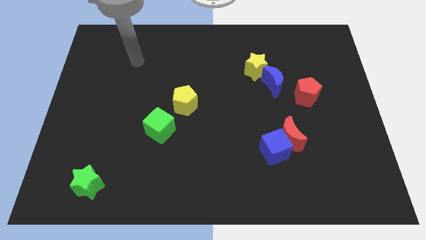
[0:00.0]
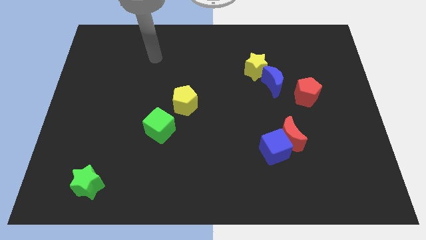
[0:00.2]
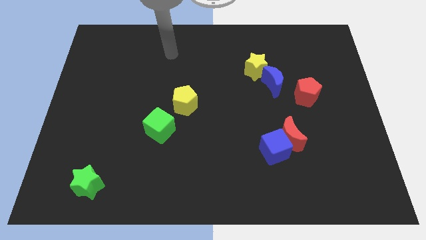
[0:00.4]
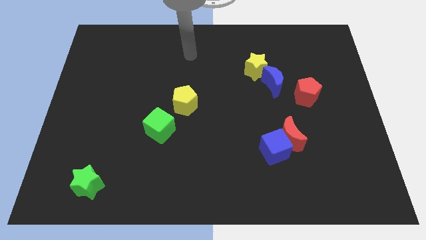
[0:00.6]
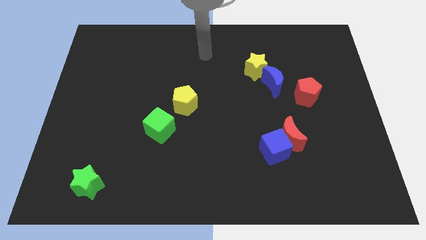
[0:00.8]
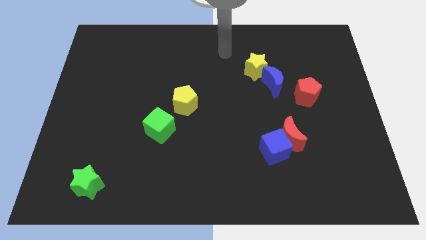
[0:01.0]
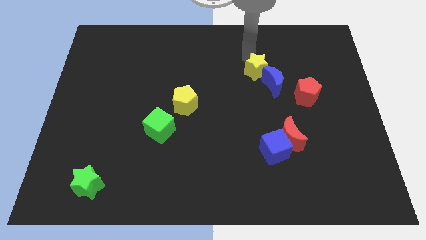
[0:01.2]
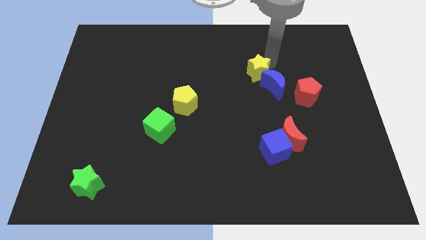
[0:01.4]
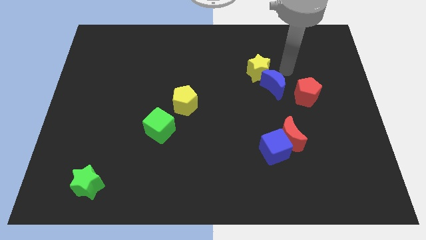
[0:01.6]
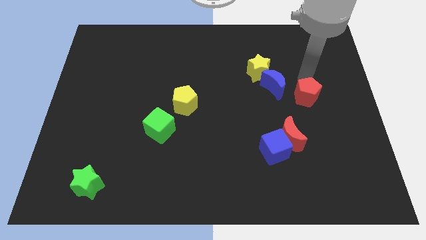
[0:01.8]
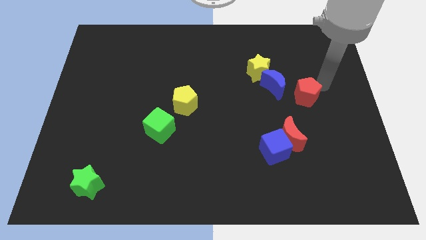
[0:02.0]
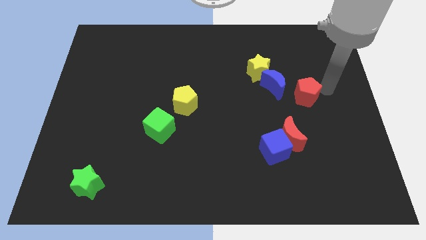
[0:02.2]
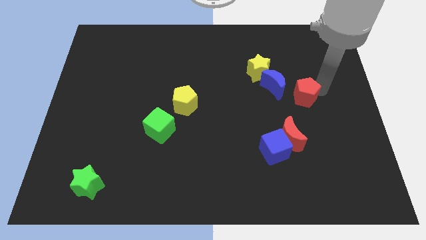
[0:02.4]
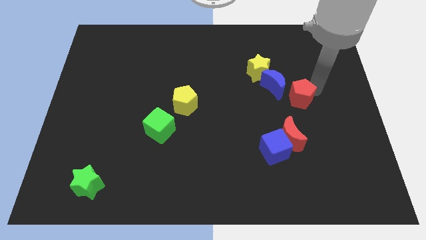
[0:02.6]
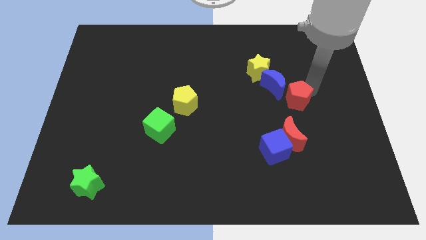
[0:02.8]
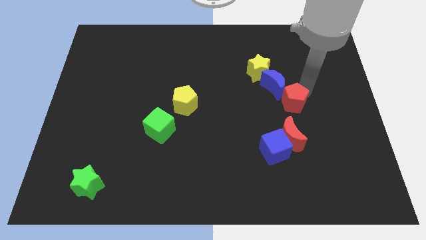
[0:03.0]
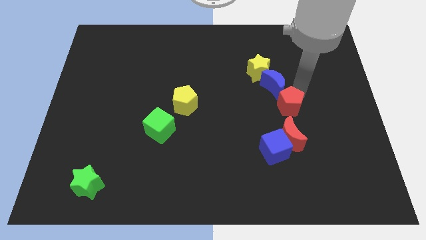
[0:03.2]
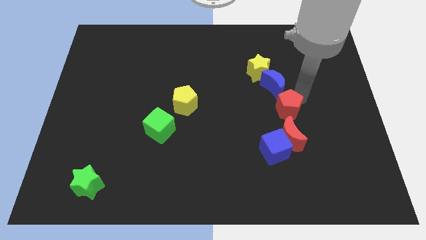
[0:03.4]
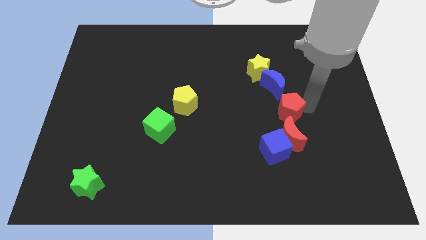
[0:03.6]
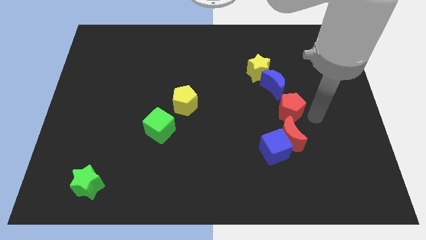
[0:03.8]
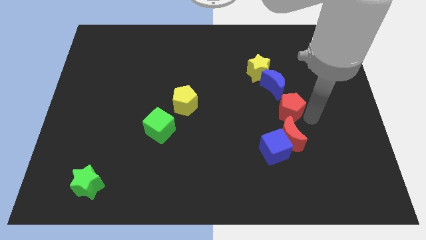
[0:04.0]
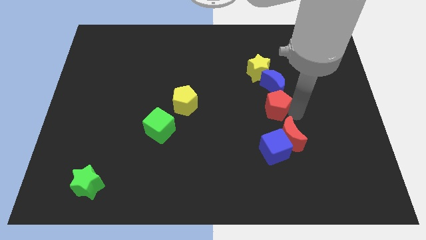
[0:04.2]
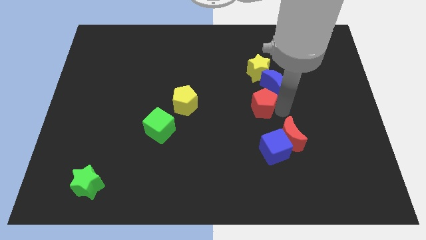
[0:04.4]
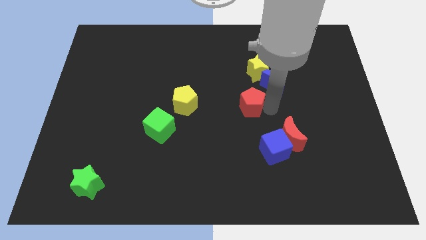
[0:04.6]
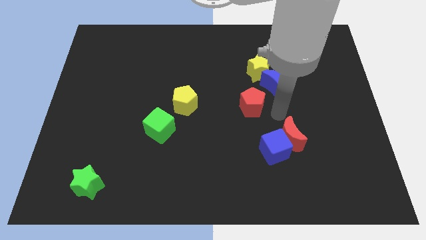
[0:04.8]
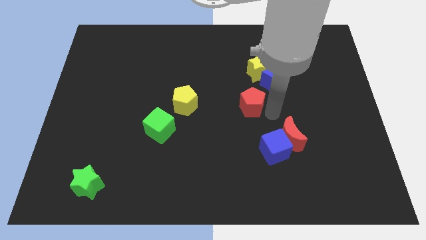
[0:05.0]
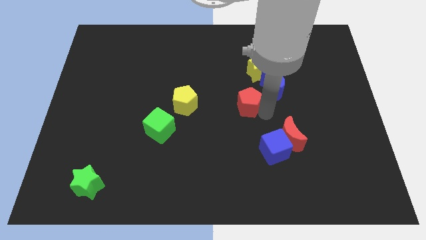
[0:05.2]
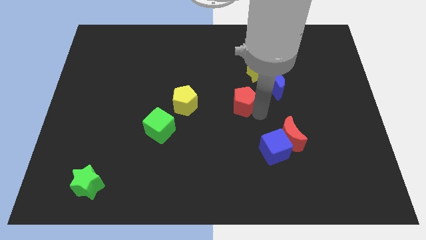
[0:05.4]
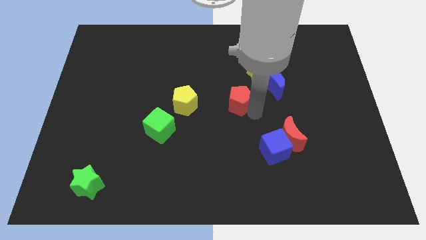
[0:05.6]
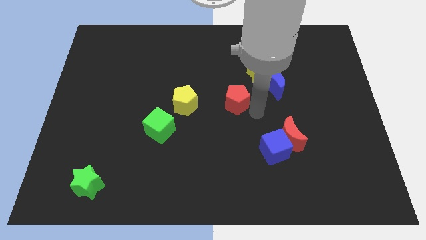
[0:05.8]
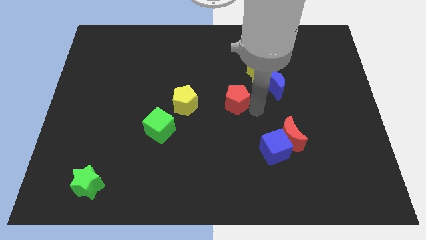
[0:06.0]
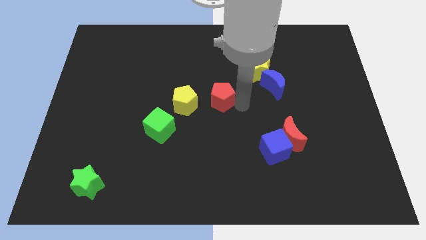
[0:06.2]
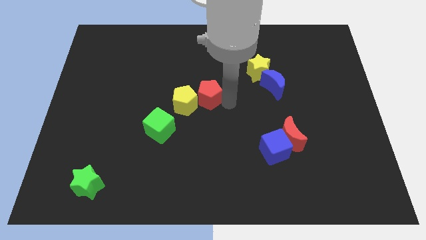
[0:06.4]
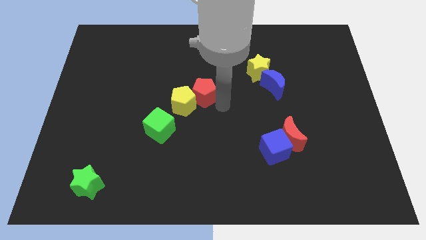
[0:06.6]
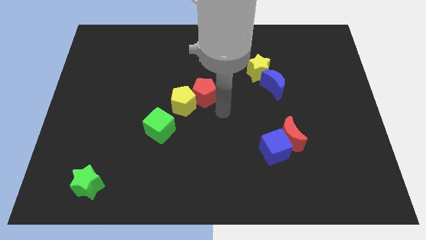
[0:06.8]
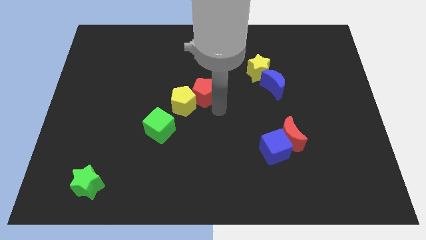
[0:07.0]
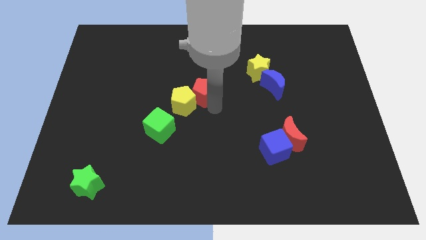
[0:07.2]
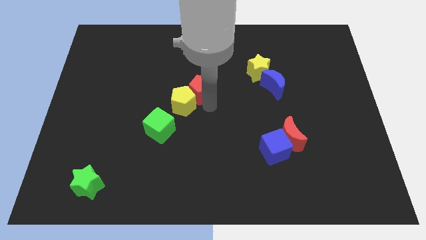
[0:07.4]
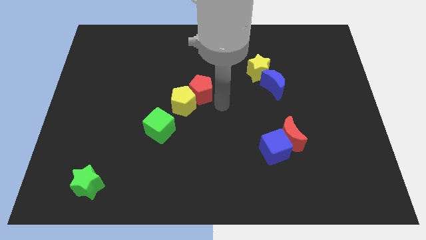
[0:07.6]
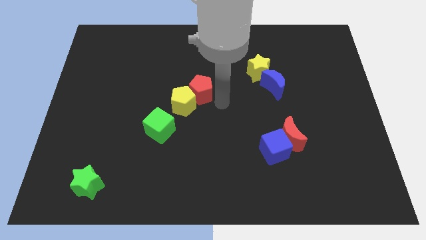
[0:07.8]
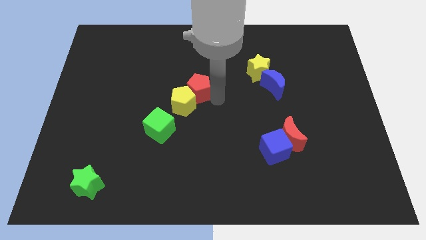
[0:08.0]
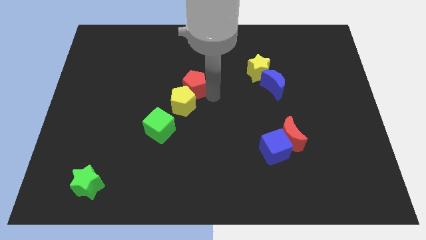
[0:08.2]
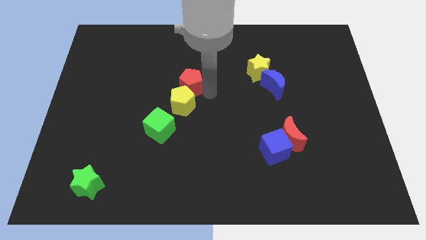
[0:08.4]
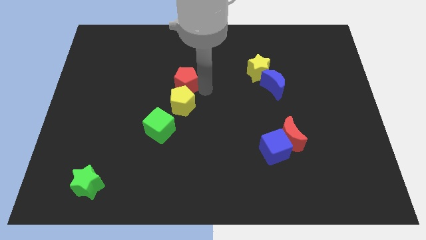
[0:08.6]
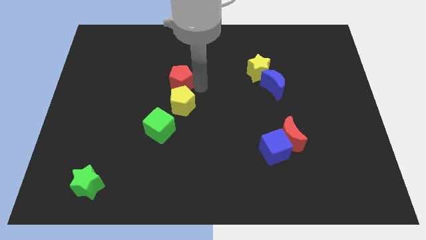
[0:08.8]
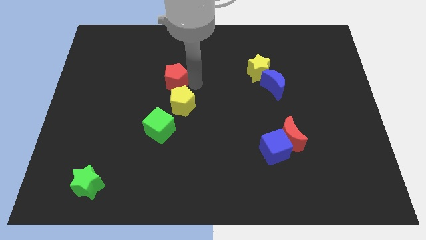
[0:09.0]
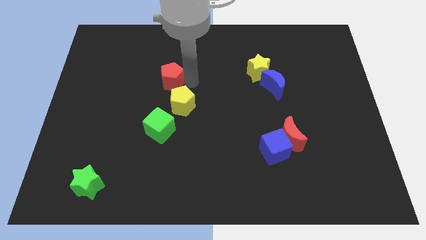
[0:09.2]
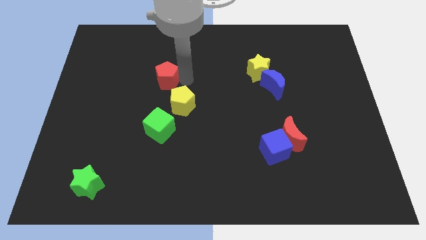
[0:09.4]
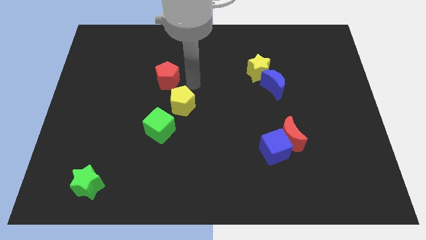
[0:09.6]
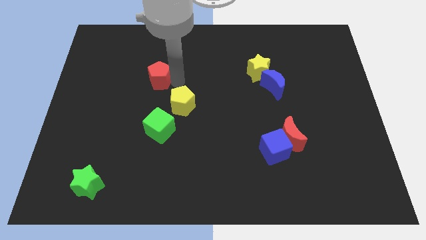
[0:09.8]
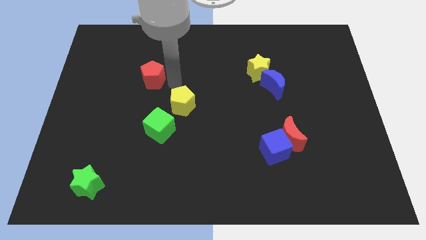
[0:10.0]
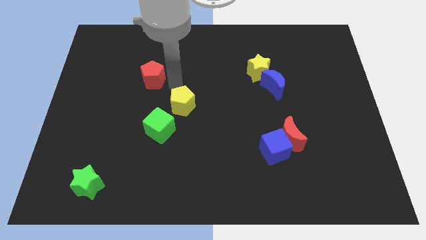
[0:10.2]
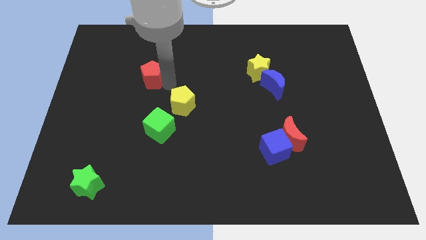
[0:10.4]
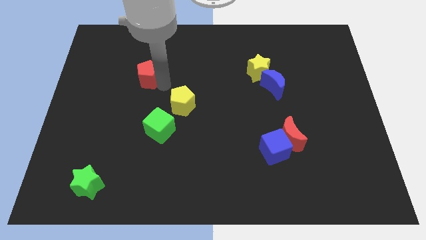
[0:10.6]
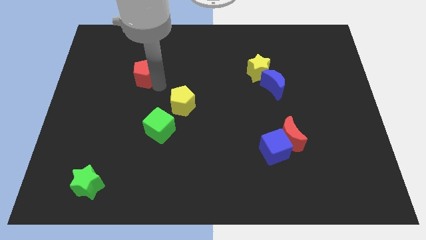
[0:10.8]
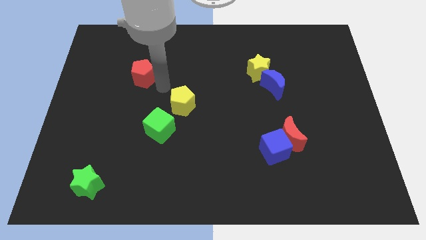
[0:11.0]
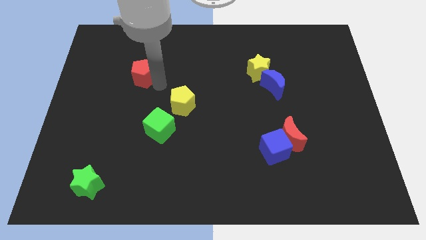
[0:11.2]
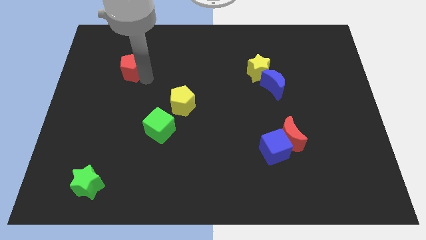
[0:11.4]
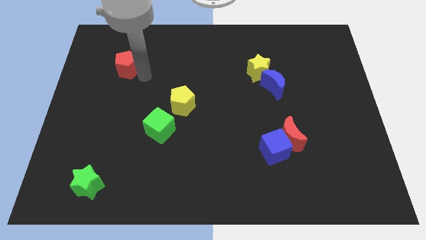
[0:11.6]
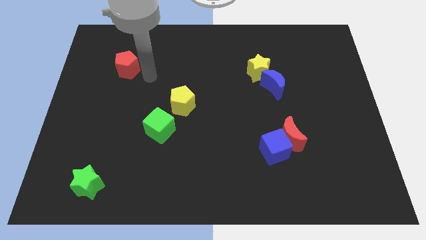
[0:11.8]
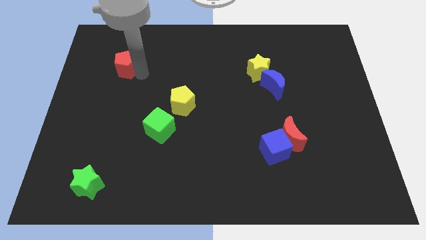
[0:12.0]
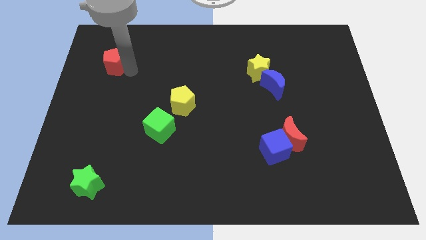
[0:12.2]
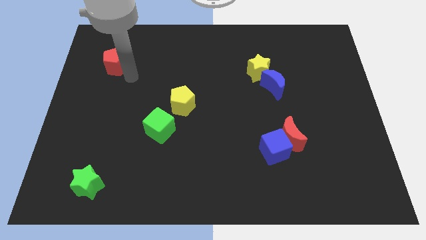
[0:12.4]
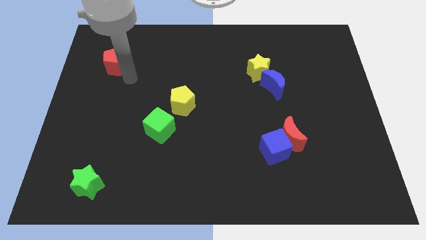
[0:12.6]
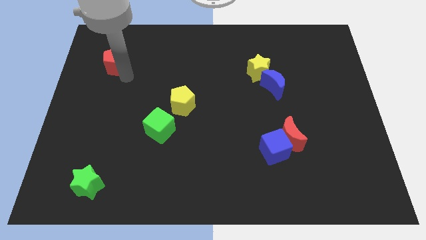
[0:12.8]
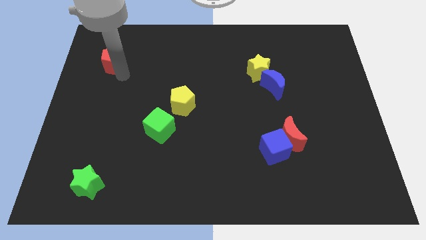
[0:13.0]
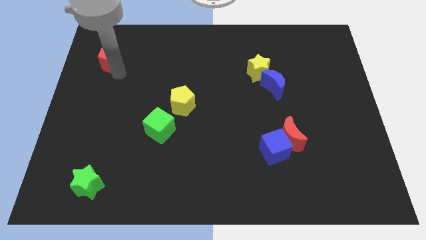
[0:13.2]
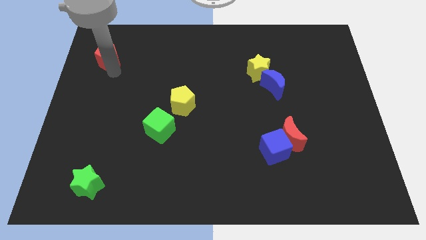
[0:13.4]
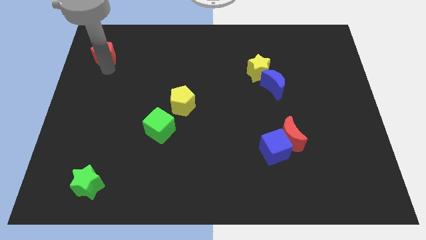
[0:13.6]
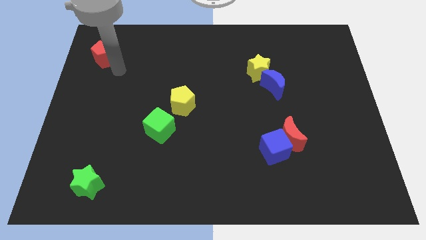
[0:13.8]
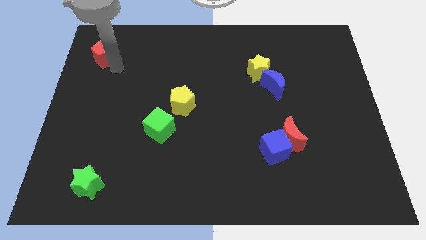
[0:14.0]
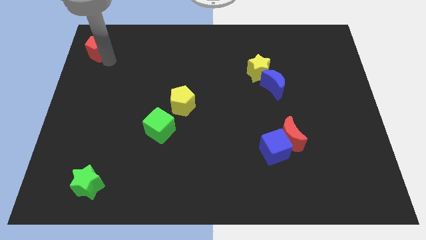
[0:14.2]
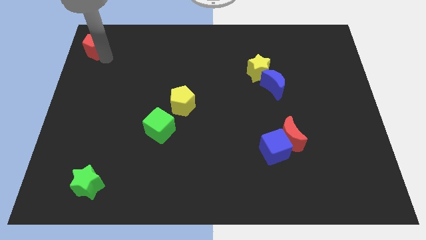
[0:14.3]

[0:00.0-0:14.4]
slide the red pentagon to the top left of the board
